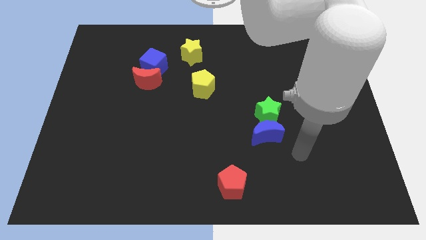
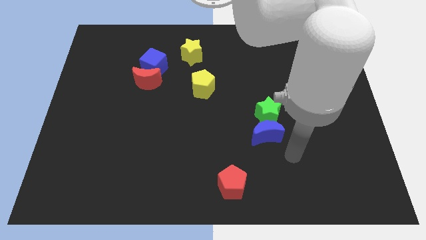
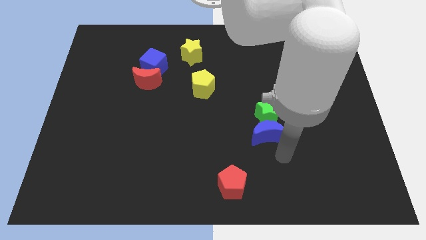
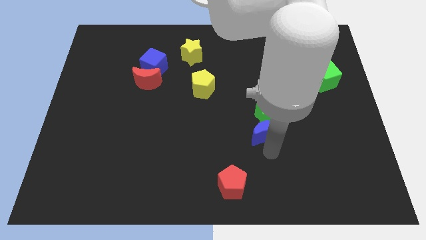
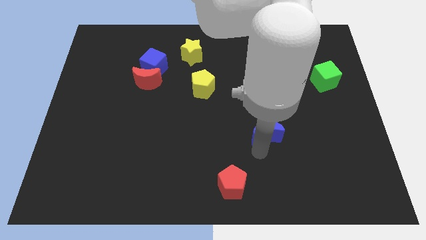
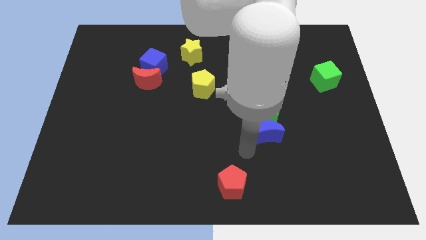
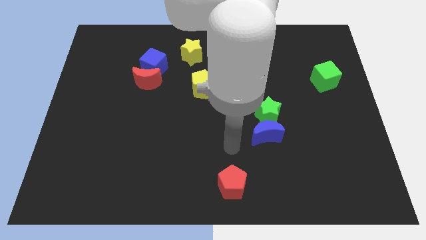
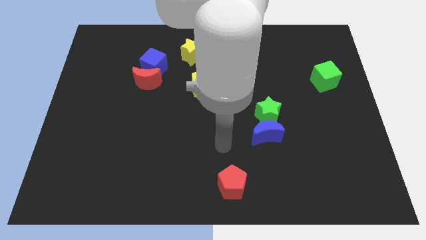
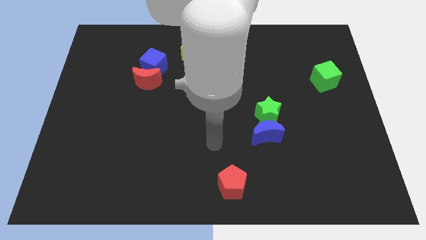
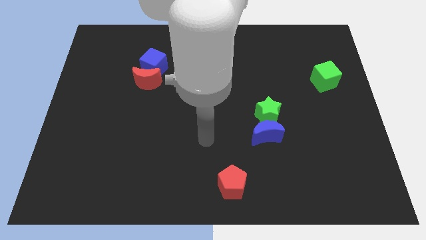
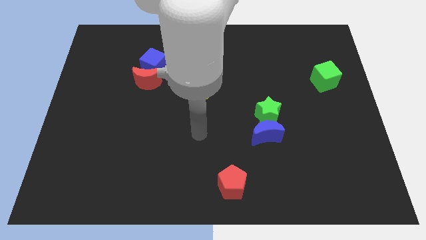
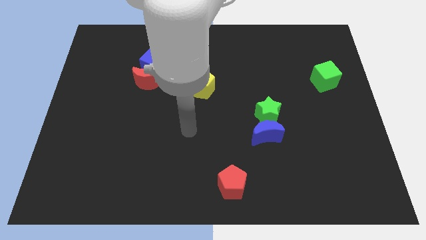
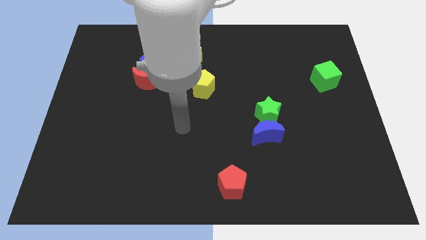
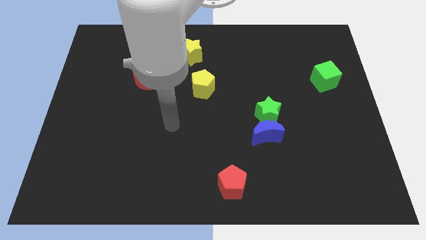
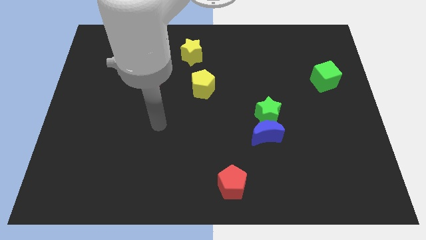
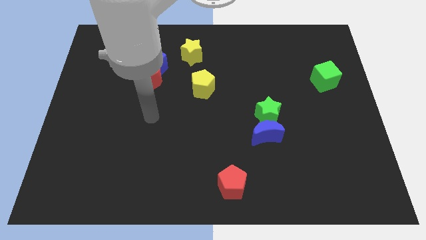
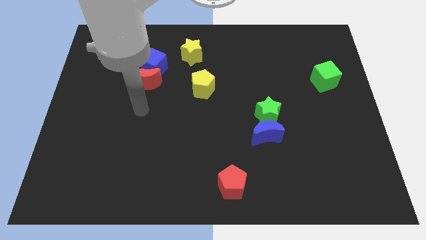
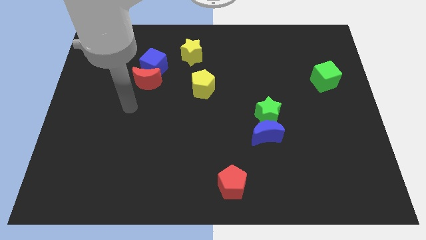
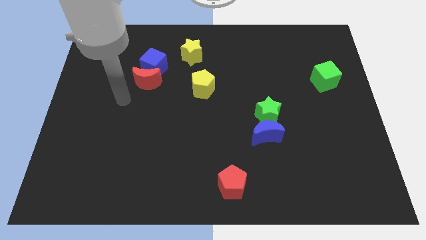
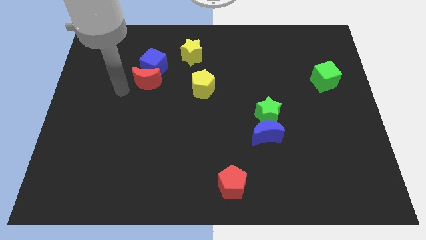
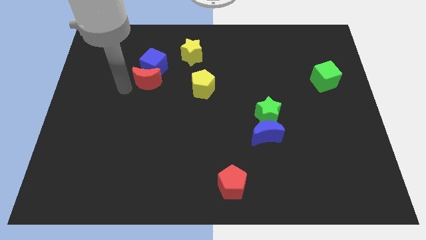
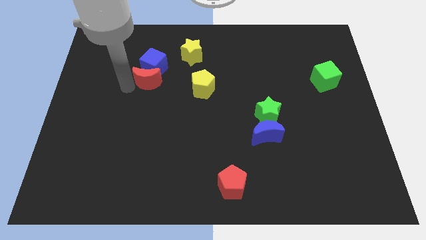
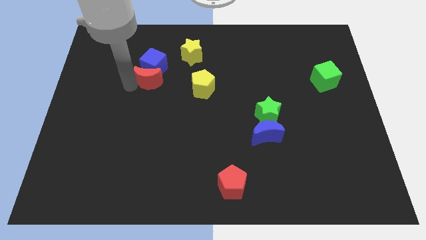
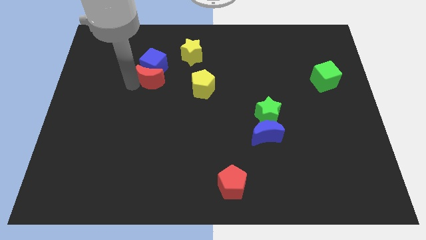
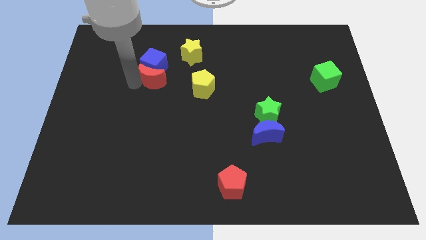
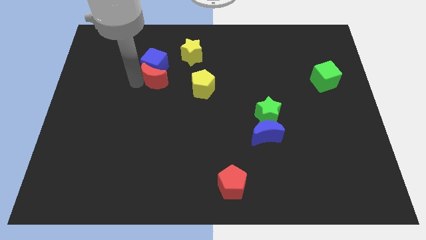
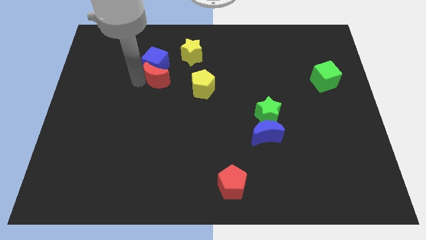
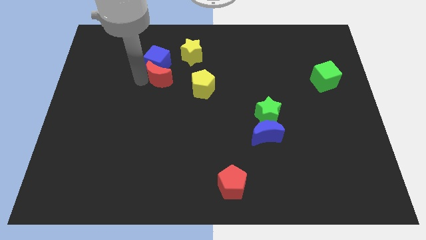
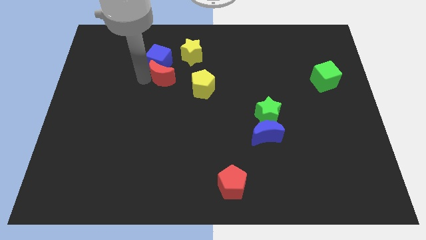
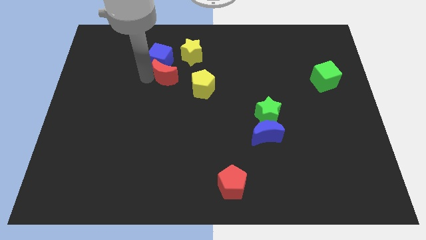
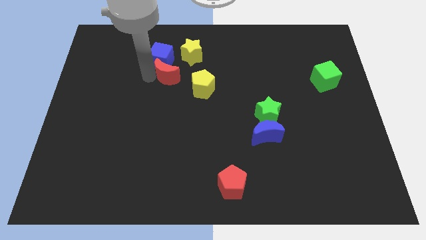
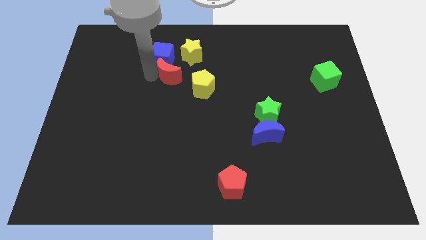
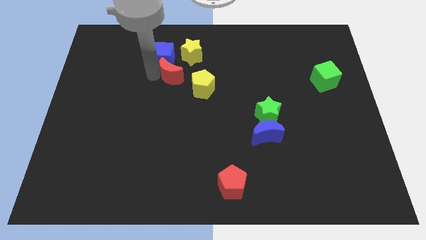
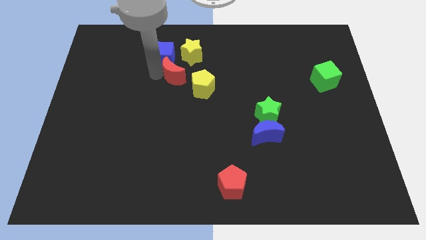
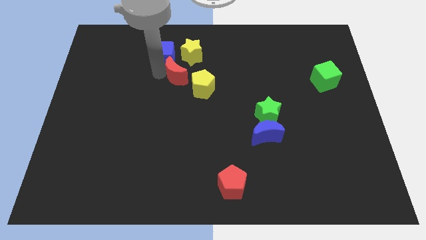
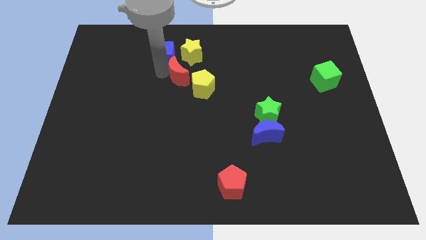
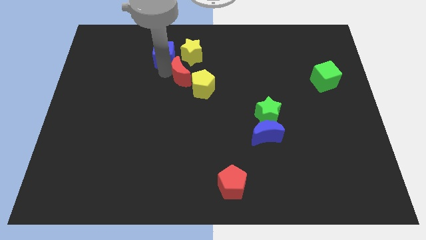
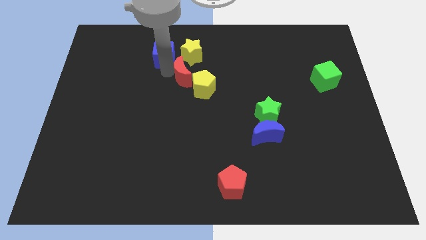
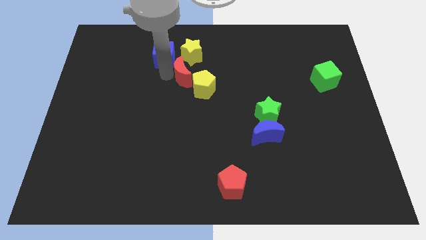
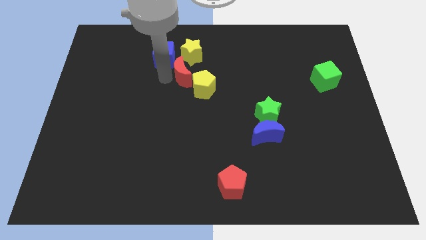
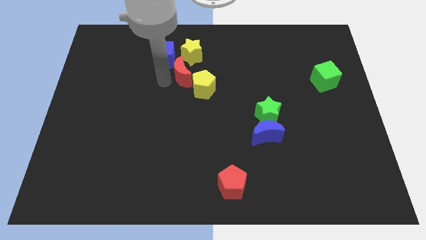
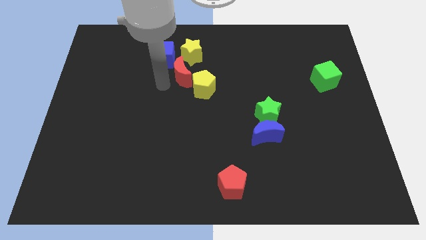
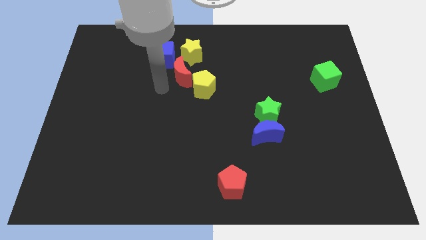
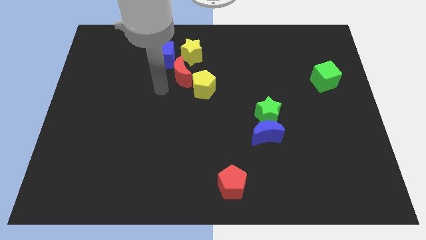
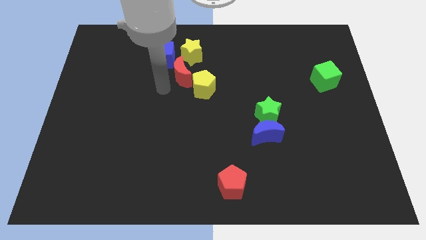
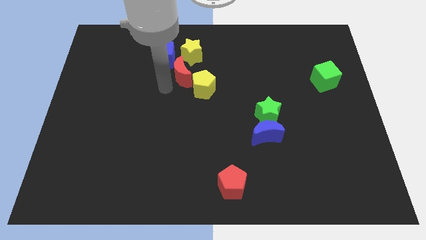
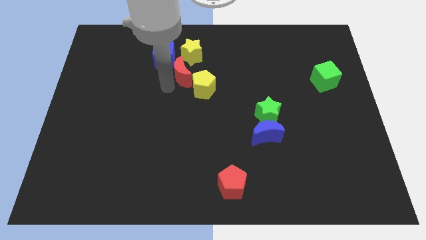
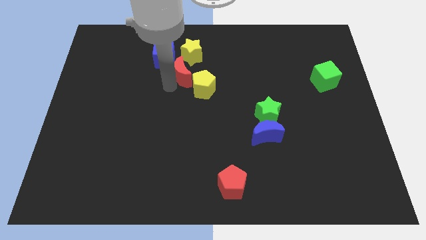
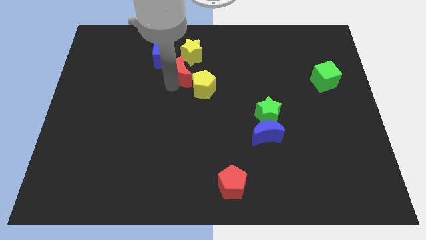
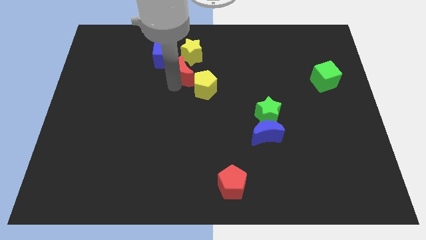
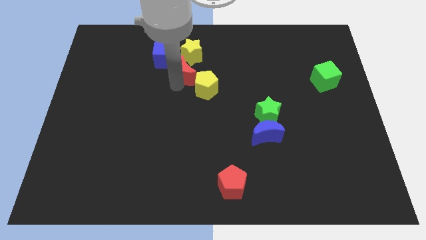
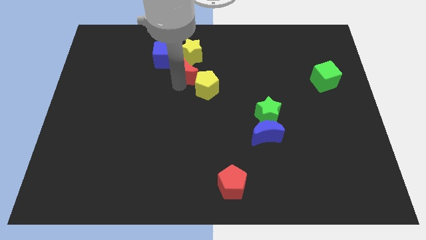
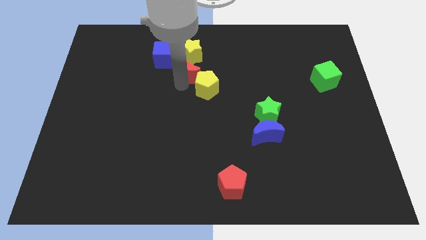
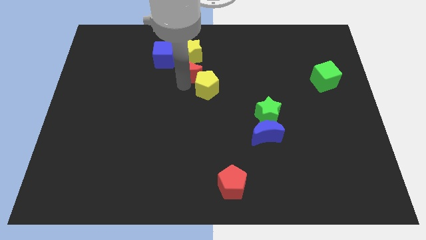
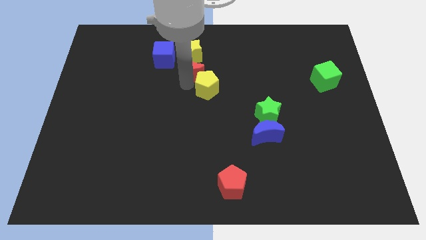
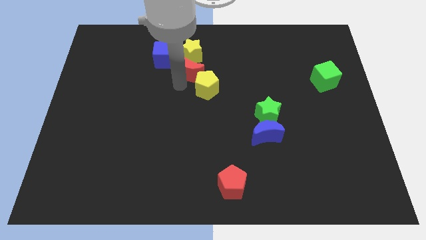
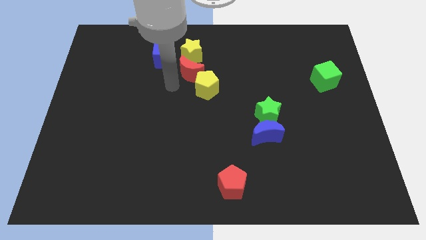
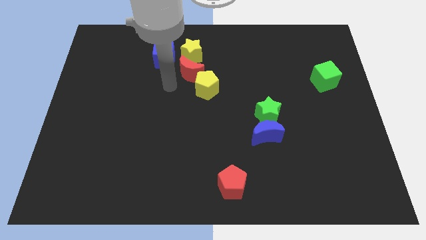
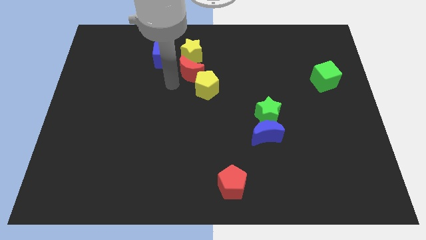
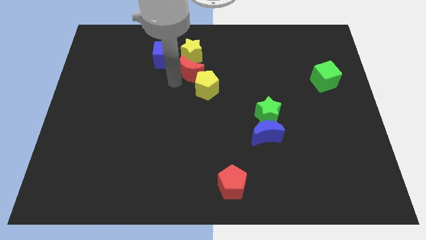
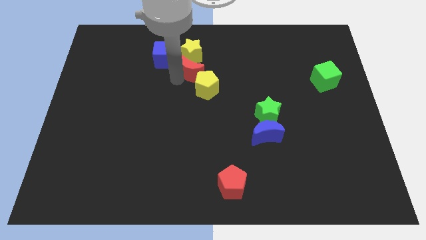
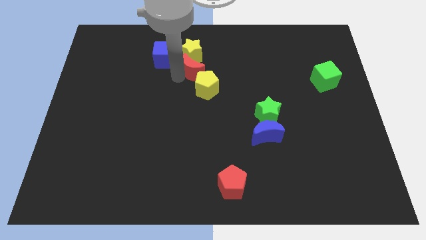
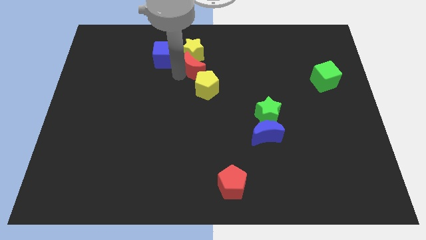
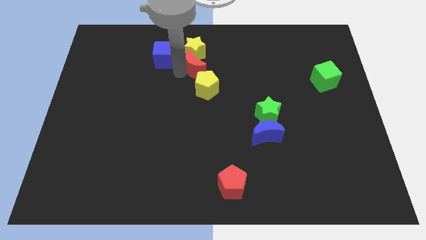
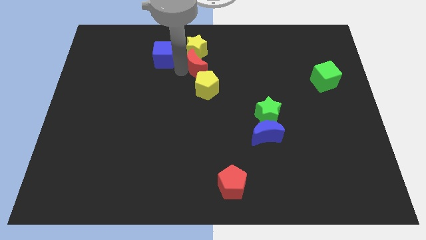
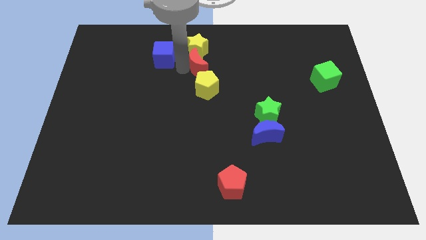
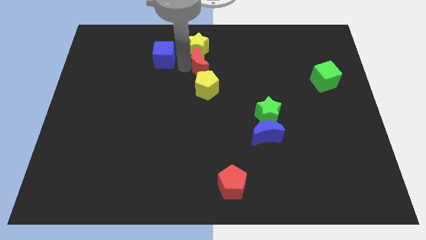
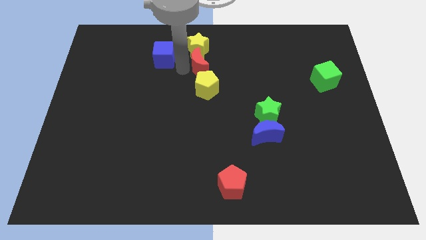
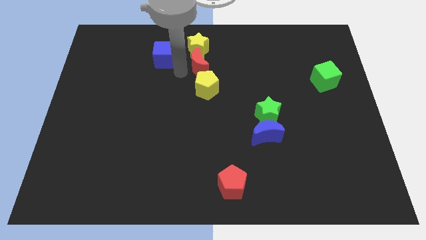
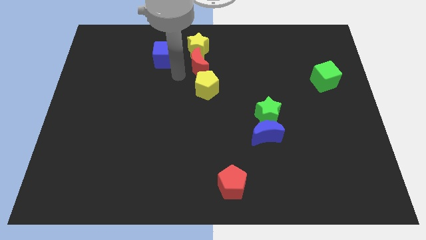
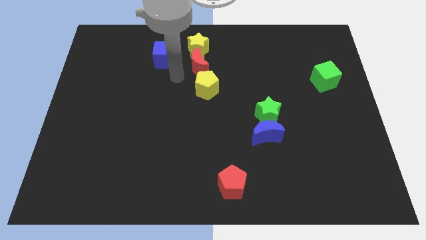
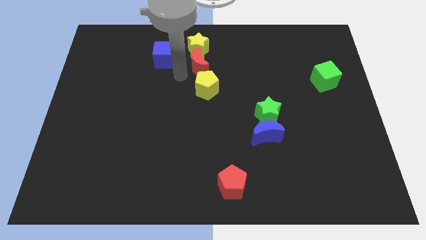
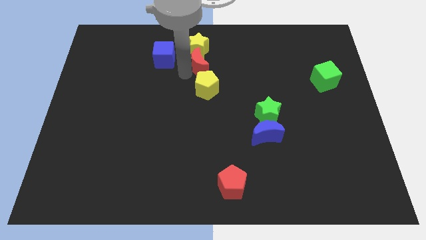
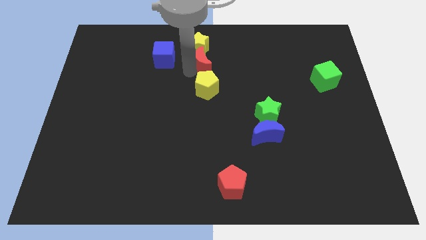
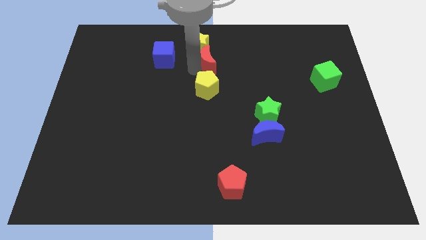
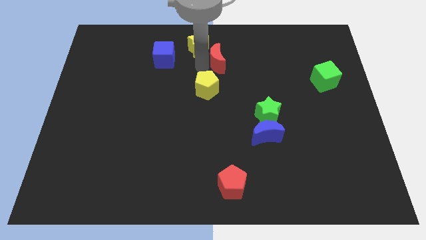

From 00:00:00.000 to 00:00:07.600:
slide the red moon just right of the yellow star
